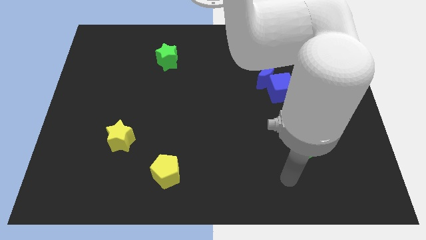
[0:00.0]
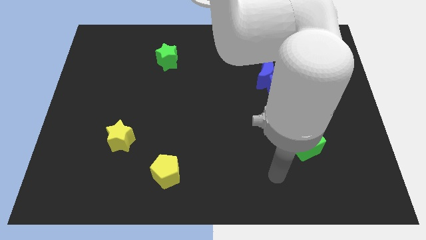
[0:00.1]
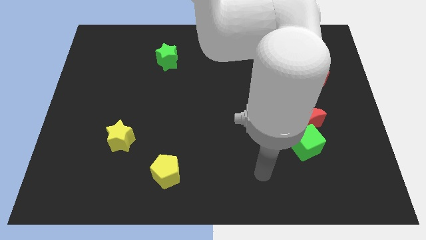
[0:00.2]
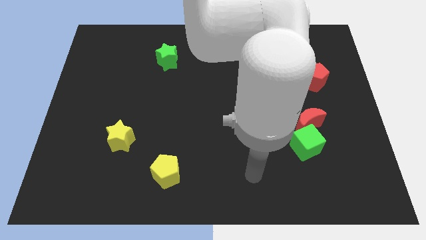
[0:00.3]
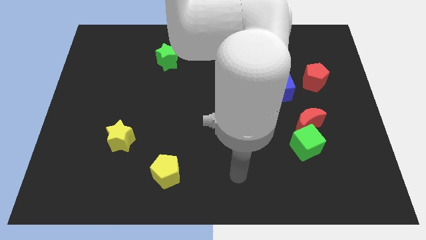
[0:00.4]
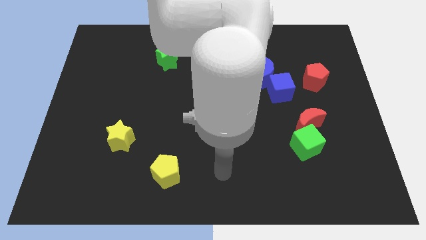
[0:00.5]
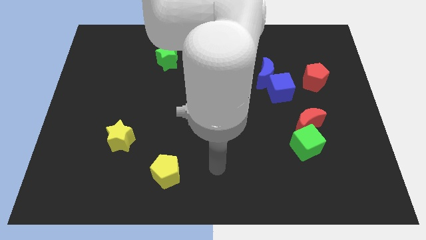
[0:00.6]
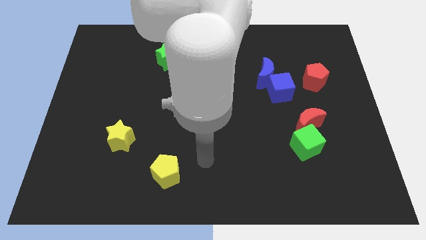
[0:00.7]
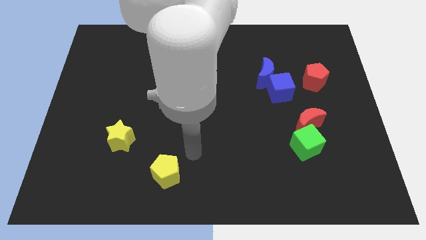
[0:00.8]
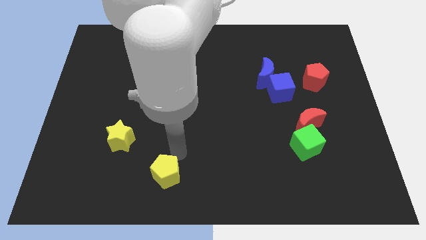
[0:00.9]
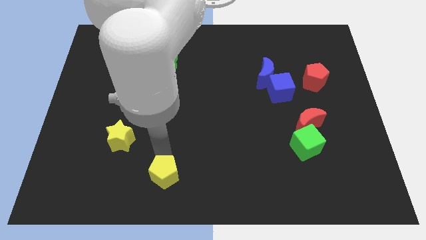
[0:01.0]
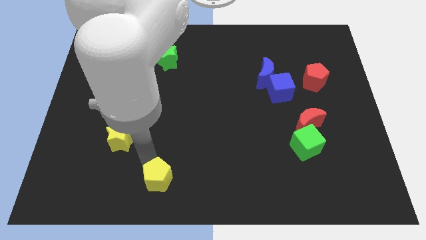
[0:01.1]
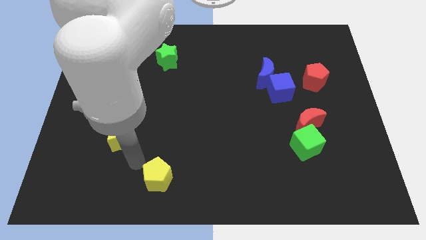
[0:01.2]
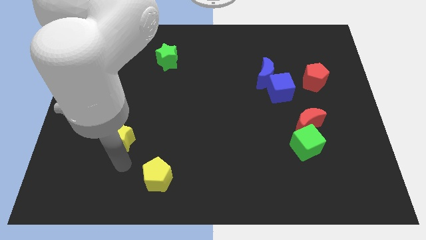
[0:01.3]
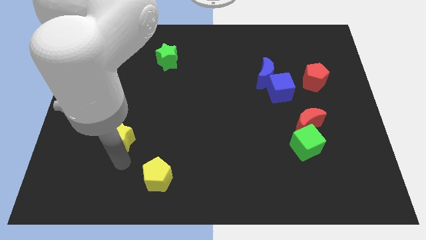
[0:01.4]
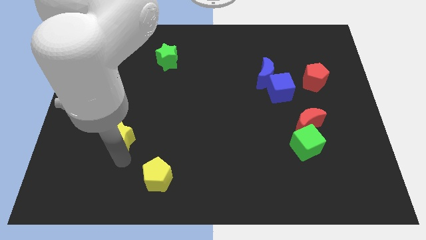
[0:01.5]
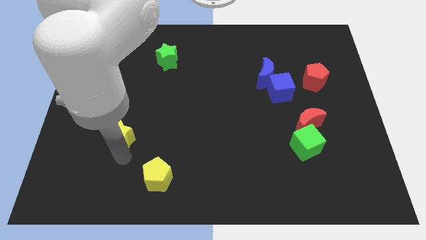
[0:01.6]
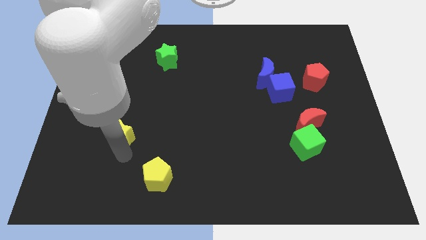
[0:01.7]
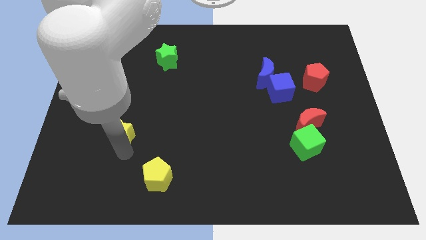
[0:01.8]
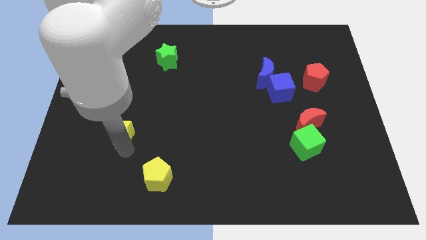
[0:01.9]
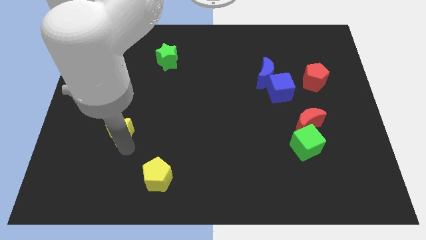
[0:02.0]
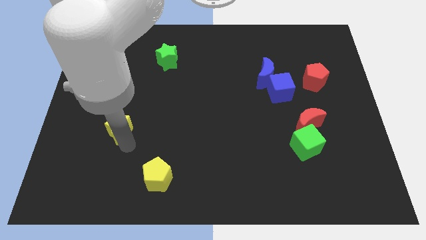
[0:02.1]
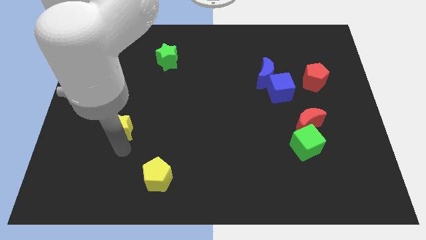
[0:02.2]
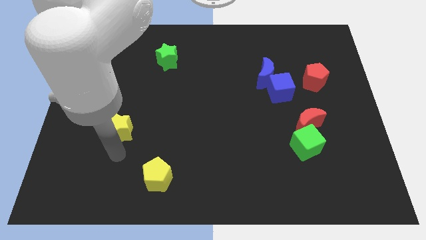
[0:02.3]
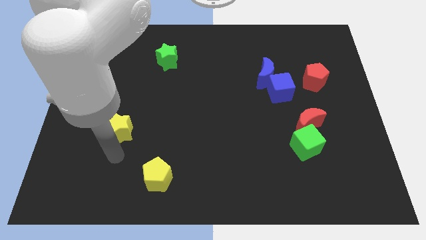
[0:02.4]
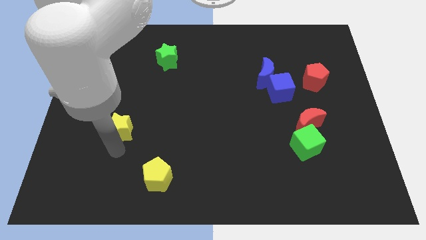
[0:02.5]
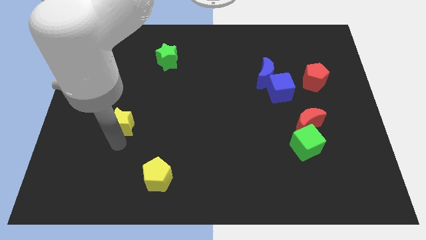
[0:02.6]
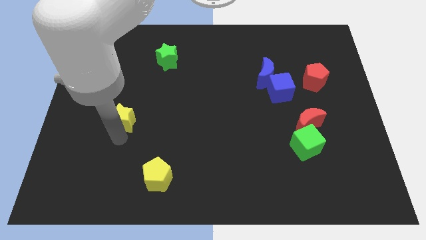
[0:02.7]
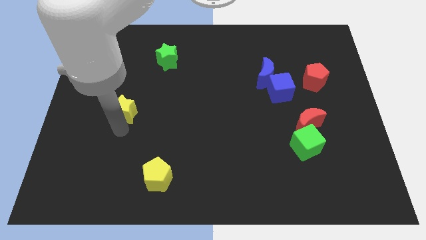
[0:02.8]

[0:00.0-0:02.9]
move the yellow star slightly up

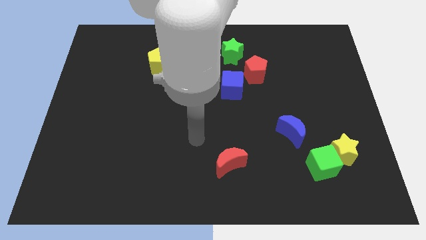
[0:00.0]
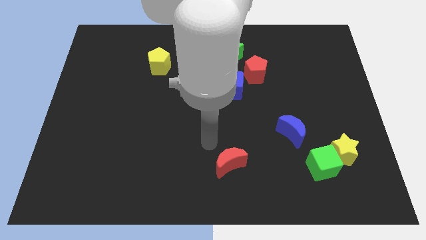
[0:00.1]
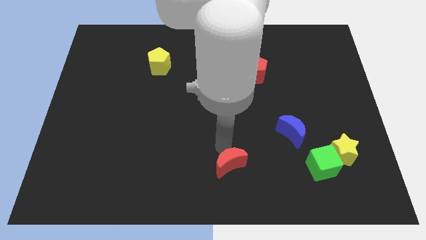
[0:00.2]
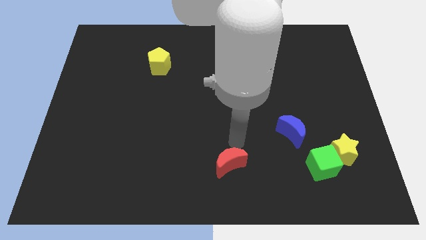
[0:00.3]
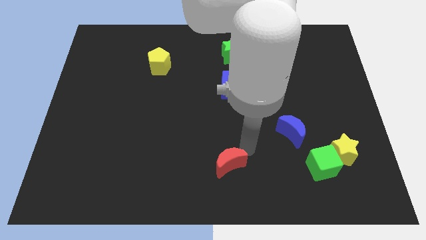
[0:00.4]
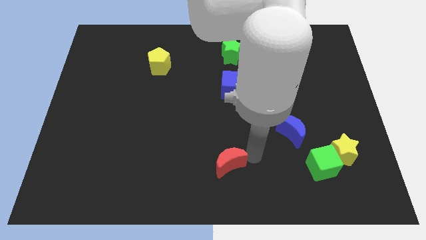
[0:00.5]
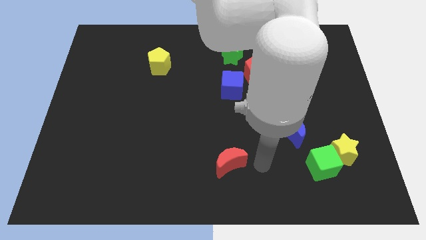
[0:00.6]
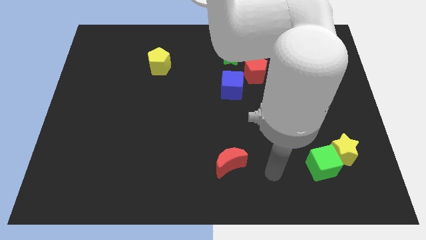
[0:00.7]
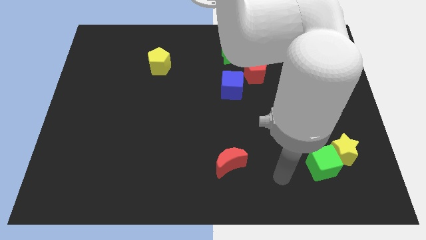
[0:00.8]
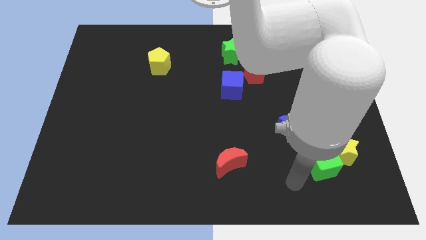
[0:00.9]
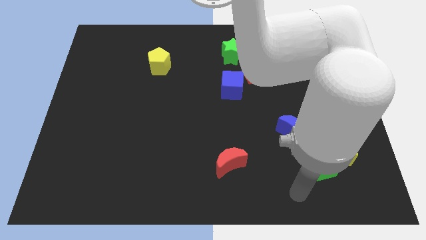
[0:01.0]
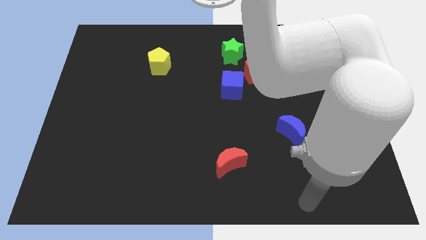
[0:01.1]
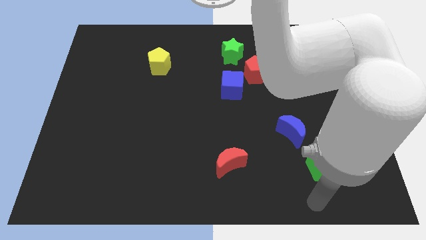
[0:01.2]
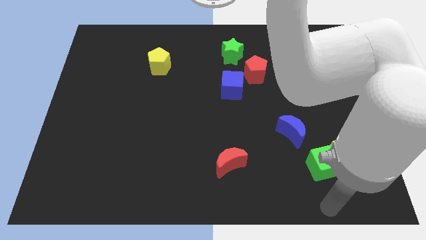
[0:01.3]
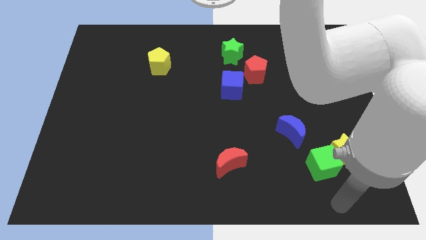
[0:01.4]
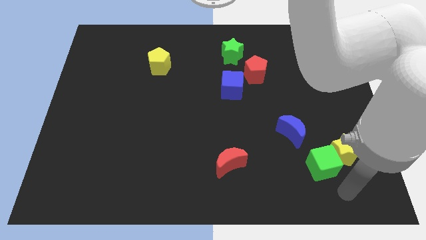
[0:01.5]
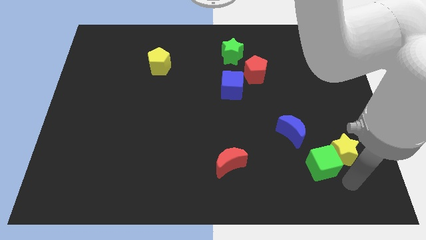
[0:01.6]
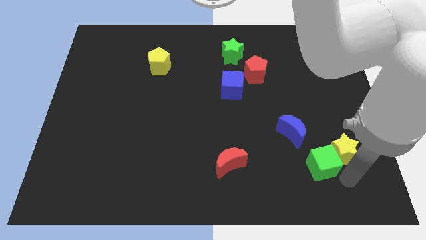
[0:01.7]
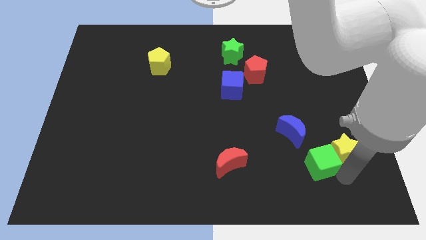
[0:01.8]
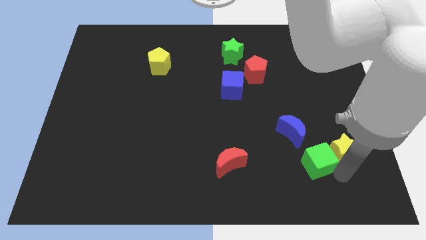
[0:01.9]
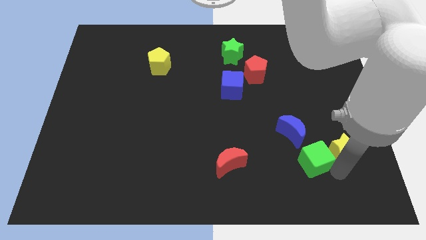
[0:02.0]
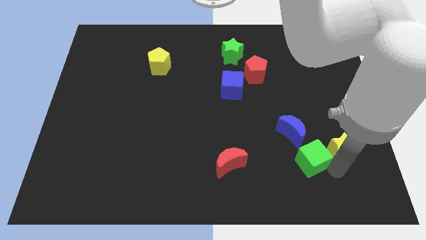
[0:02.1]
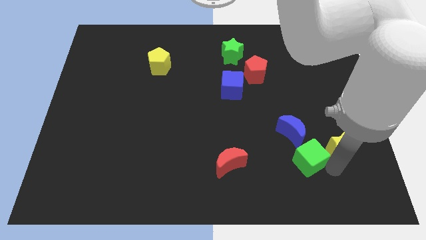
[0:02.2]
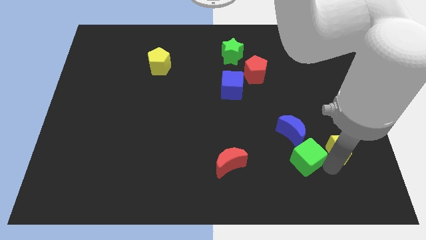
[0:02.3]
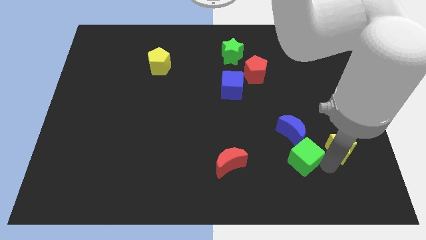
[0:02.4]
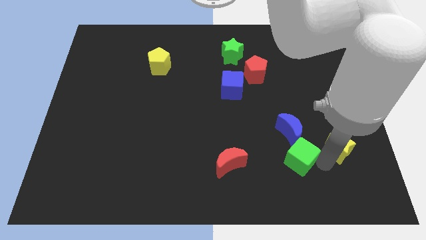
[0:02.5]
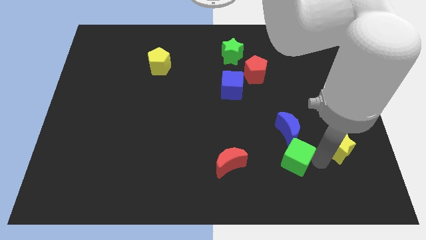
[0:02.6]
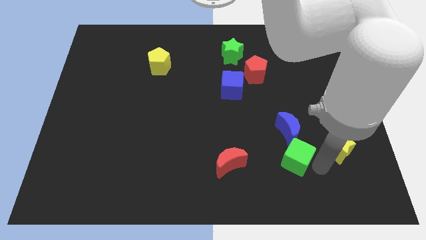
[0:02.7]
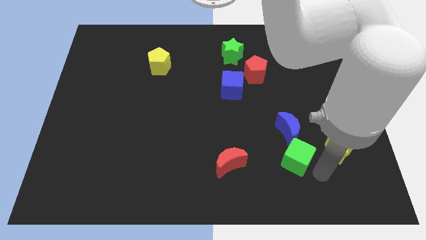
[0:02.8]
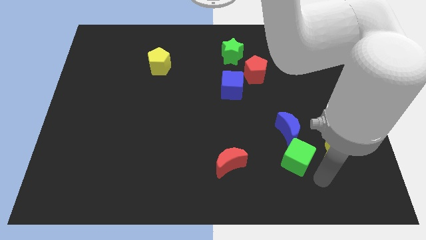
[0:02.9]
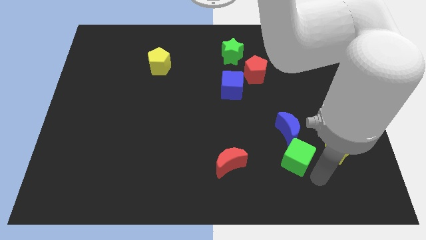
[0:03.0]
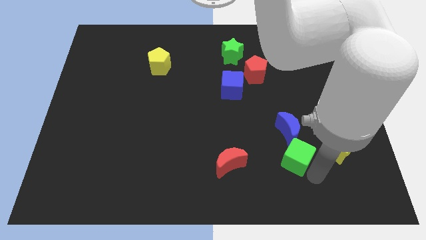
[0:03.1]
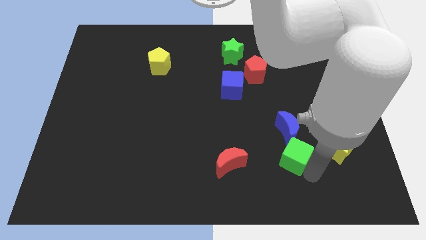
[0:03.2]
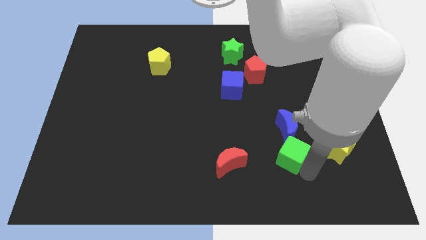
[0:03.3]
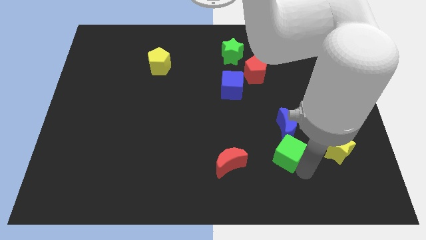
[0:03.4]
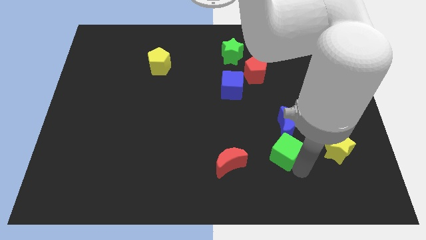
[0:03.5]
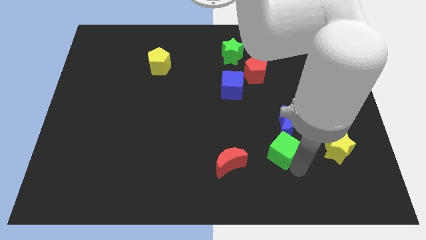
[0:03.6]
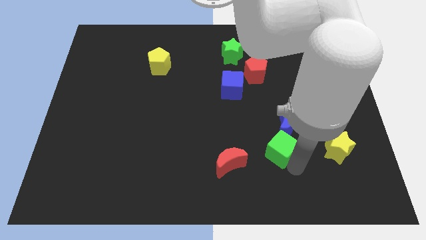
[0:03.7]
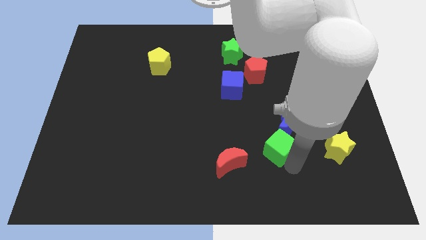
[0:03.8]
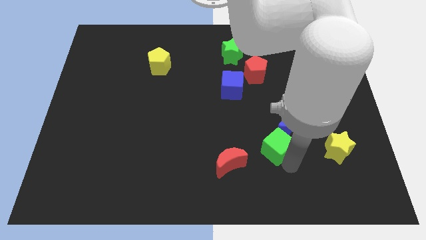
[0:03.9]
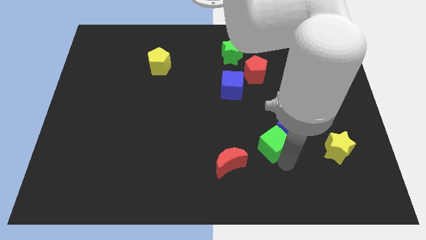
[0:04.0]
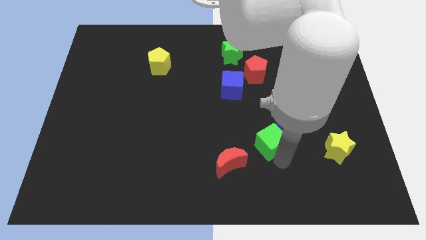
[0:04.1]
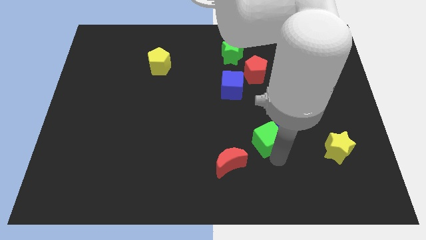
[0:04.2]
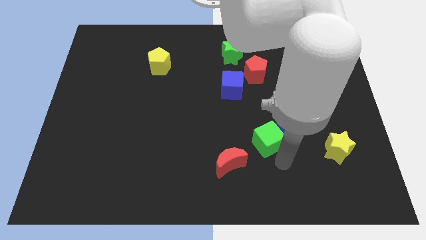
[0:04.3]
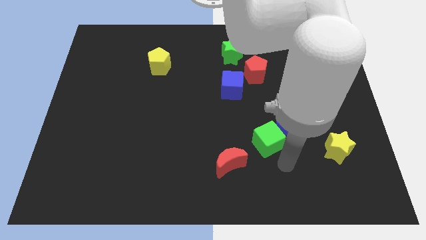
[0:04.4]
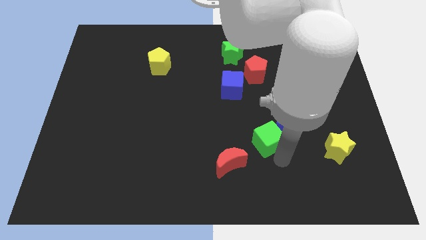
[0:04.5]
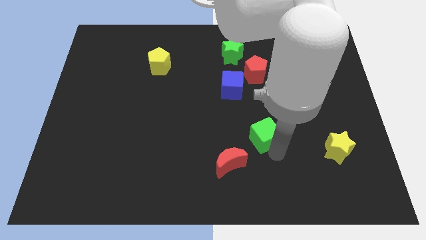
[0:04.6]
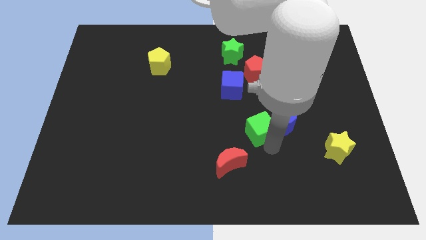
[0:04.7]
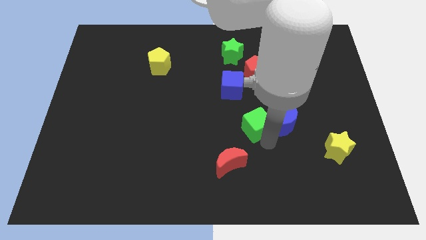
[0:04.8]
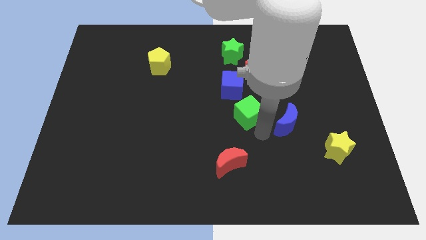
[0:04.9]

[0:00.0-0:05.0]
slide the green cube up and left
